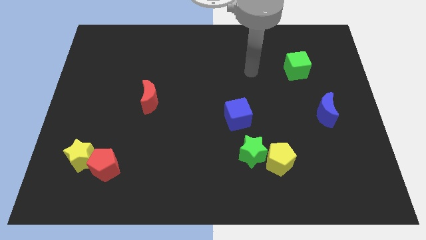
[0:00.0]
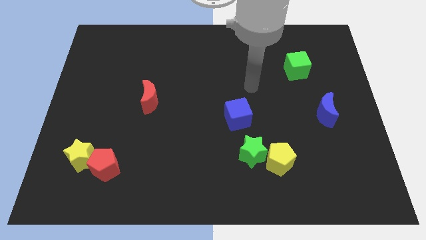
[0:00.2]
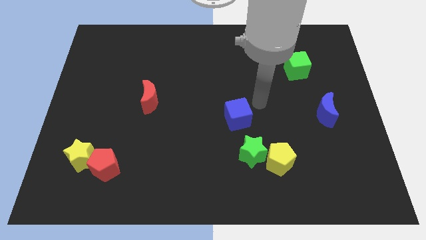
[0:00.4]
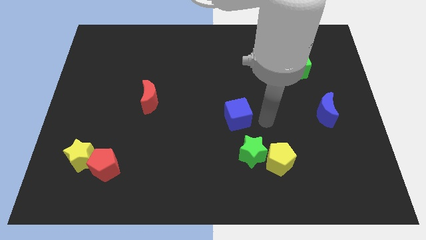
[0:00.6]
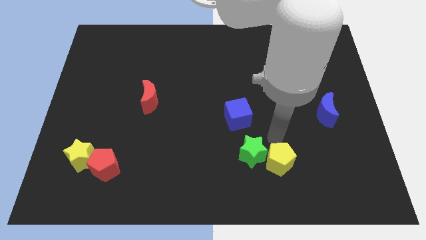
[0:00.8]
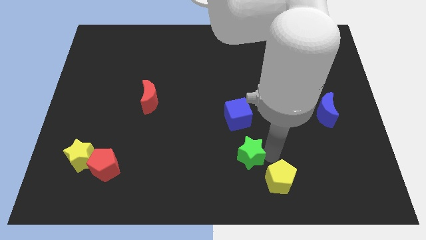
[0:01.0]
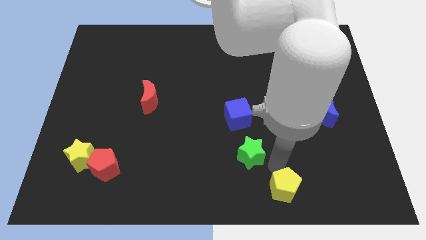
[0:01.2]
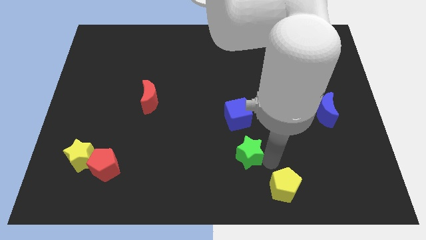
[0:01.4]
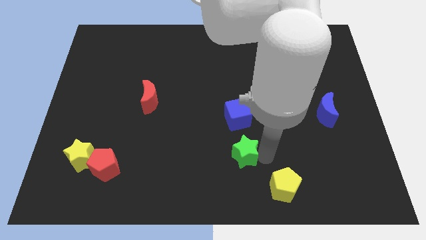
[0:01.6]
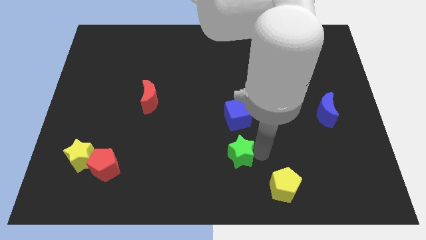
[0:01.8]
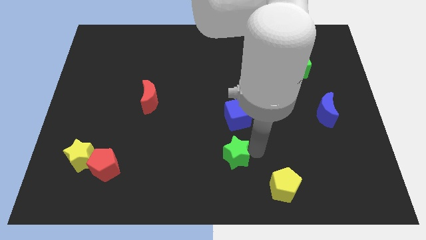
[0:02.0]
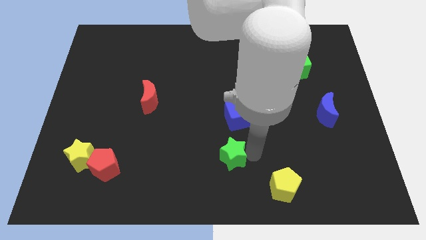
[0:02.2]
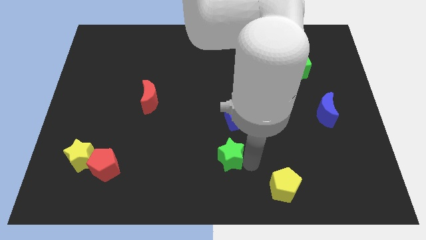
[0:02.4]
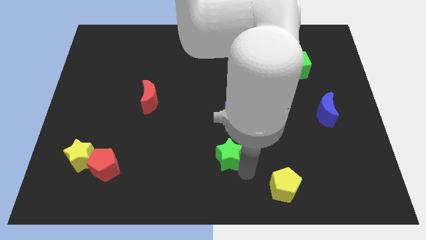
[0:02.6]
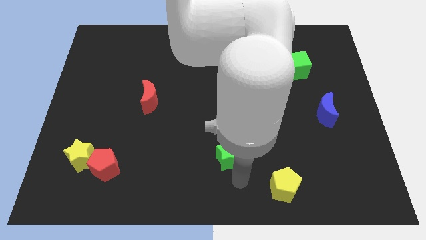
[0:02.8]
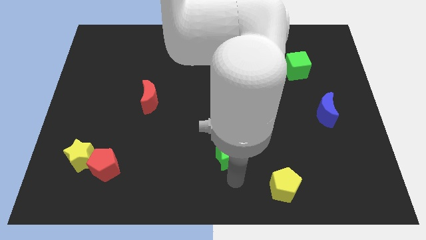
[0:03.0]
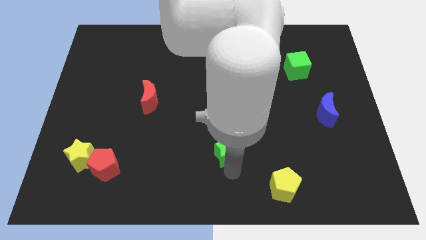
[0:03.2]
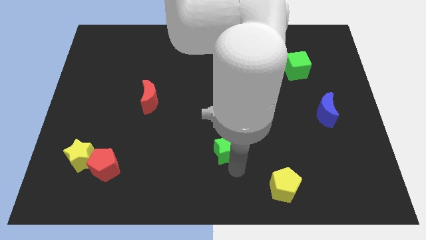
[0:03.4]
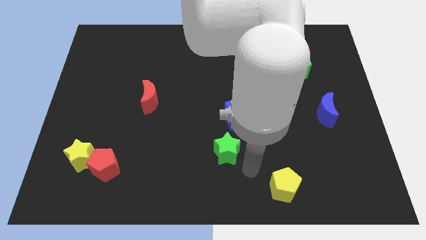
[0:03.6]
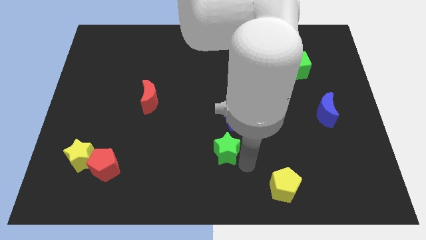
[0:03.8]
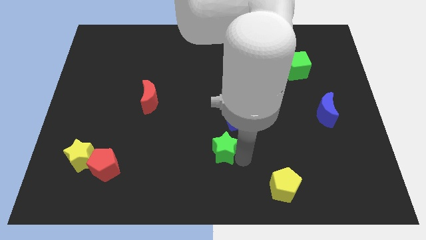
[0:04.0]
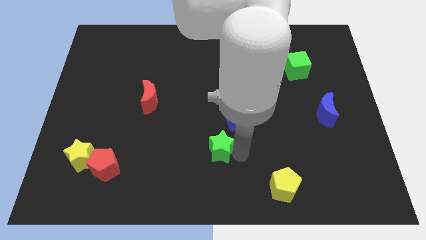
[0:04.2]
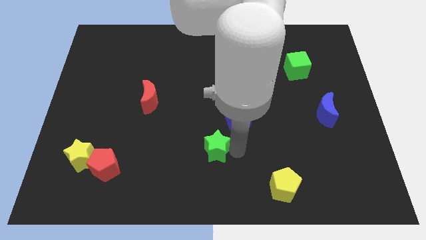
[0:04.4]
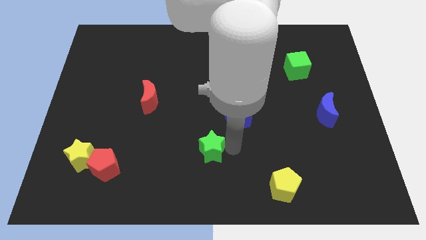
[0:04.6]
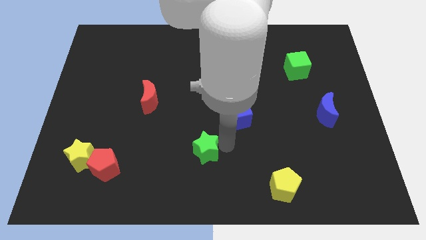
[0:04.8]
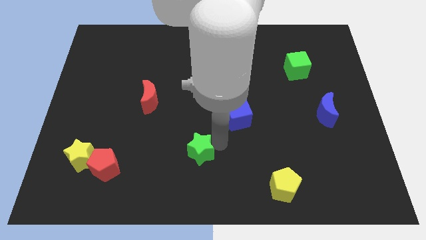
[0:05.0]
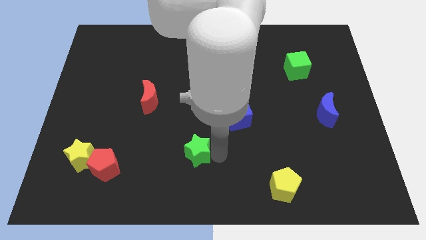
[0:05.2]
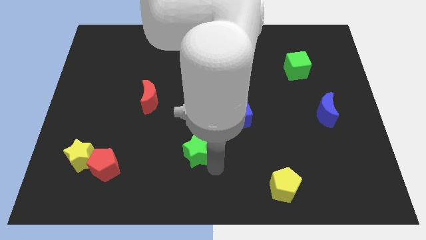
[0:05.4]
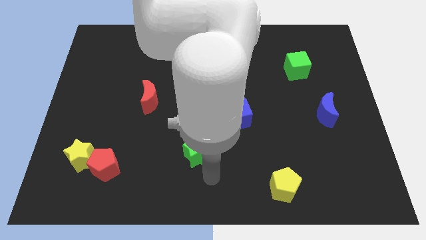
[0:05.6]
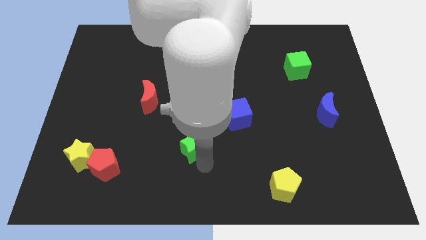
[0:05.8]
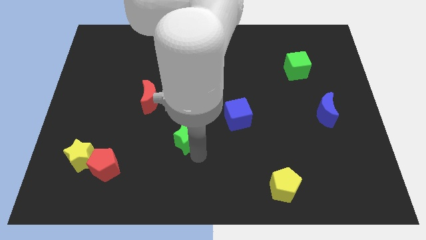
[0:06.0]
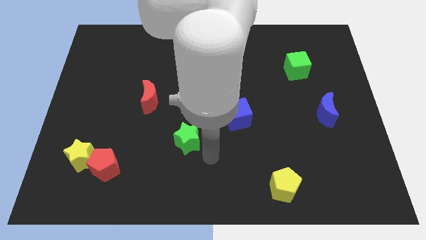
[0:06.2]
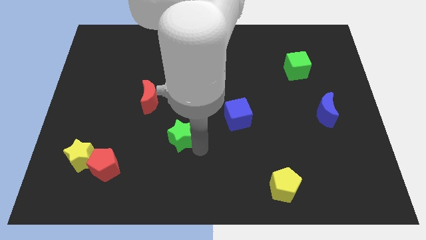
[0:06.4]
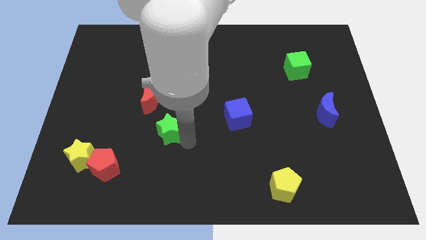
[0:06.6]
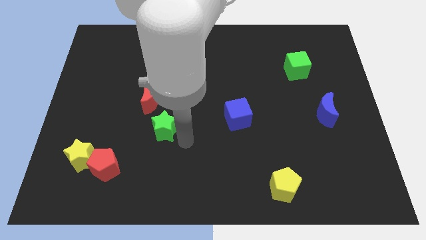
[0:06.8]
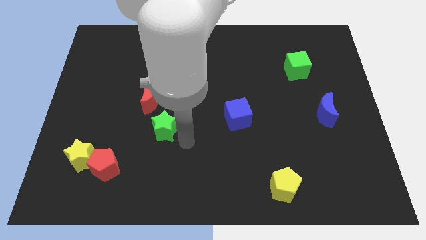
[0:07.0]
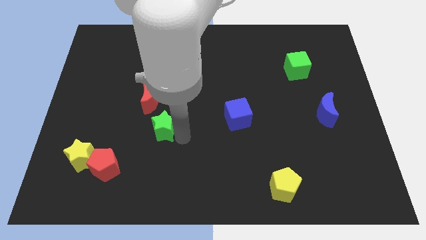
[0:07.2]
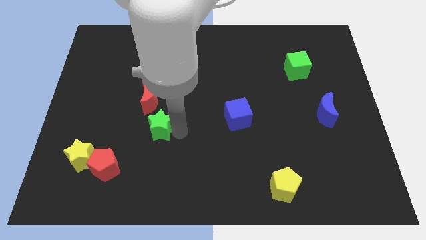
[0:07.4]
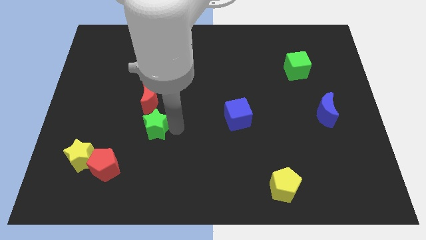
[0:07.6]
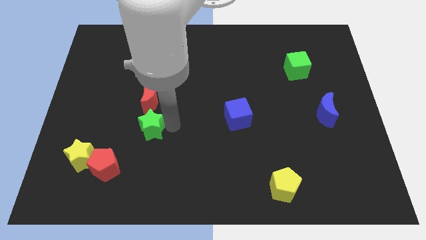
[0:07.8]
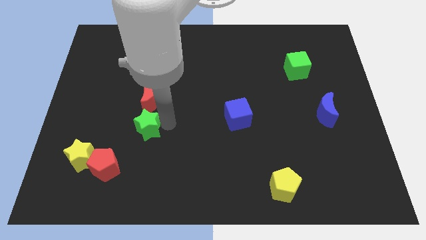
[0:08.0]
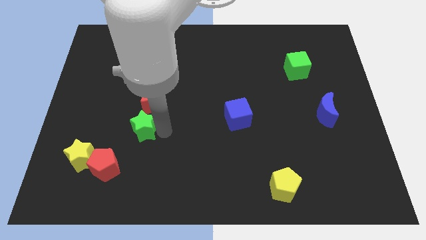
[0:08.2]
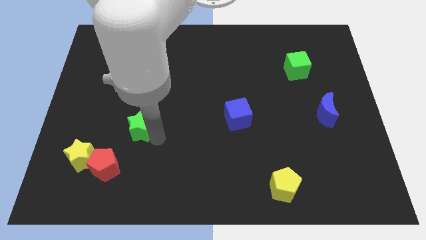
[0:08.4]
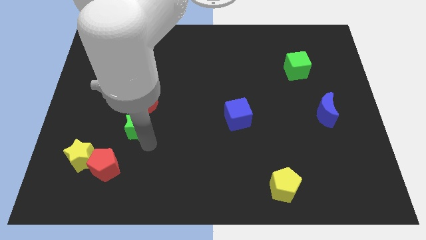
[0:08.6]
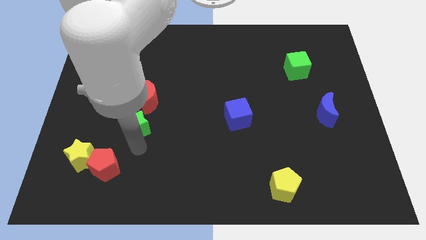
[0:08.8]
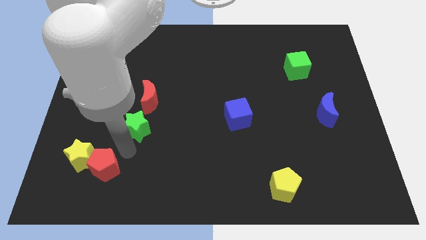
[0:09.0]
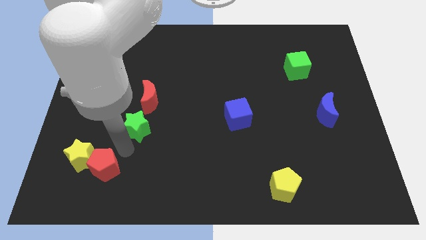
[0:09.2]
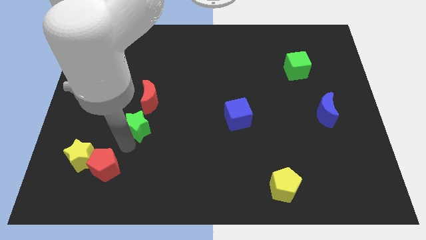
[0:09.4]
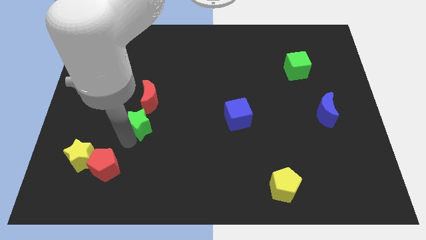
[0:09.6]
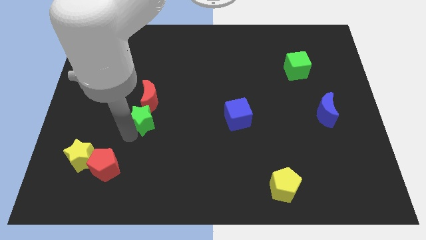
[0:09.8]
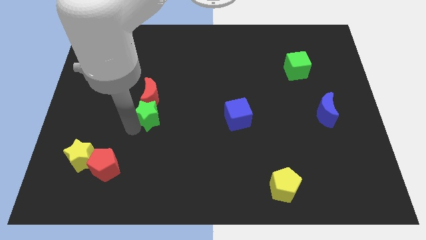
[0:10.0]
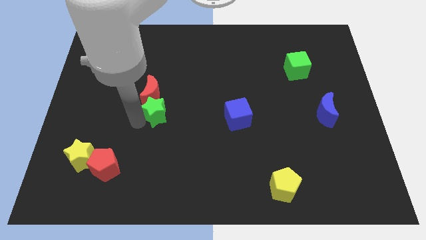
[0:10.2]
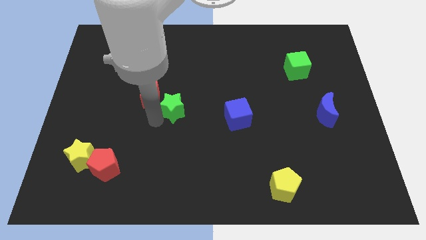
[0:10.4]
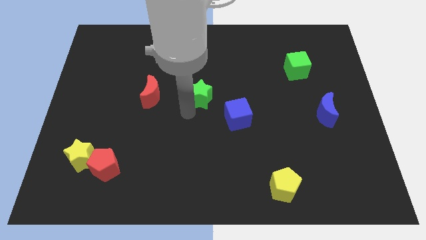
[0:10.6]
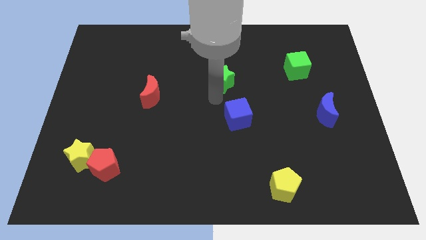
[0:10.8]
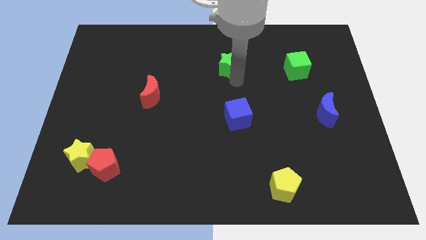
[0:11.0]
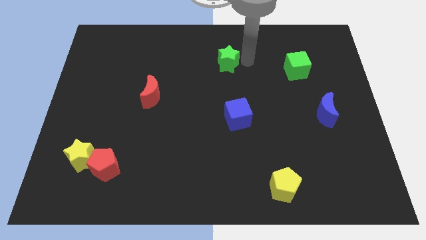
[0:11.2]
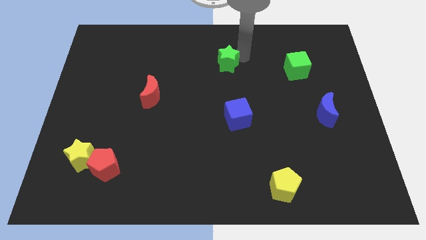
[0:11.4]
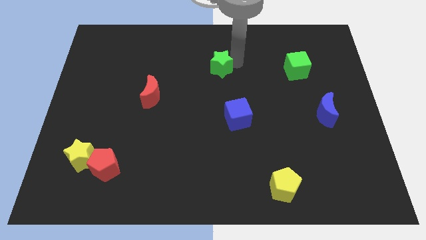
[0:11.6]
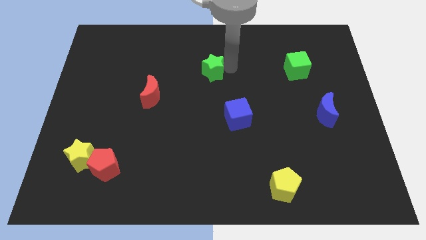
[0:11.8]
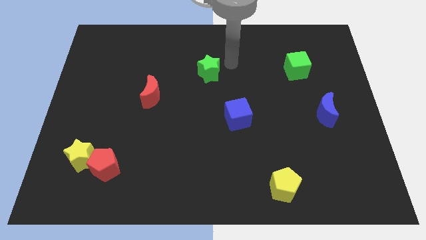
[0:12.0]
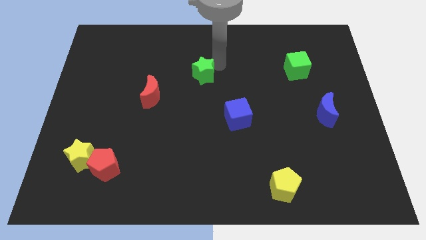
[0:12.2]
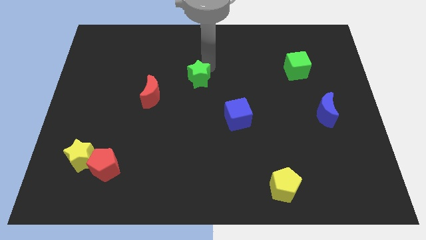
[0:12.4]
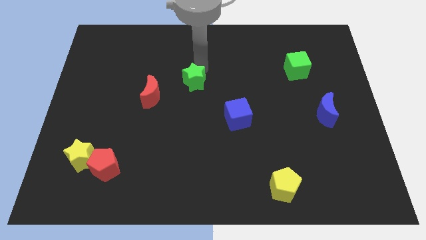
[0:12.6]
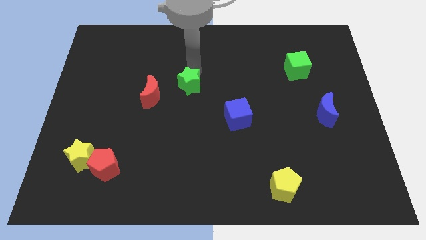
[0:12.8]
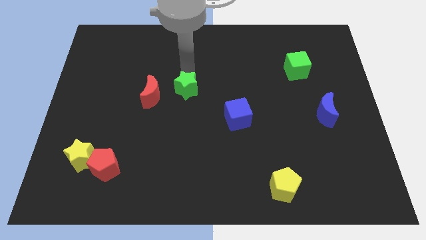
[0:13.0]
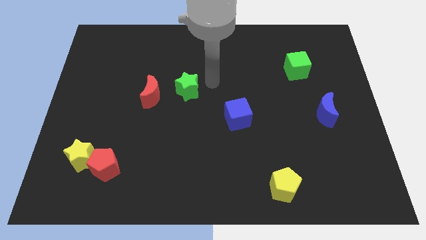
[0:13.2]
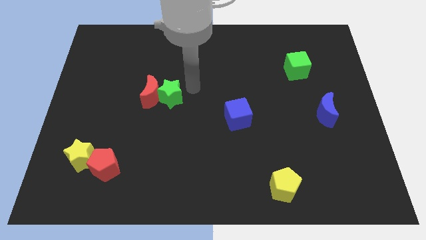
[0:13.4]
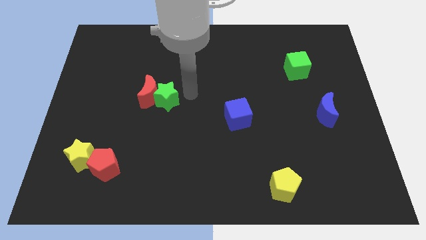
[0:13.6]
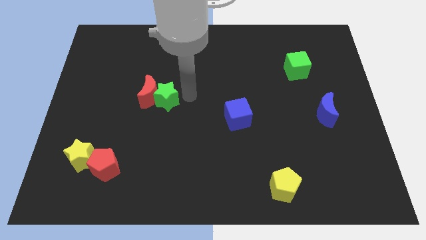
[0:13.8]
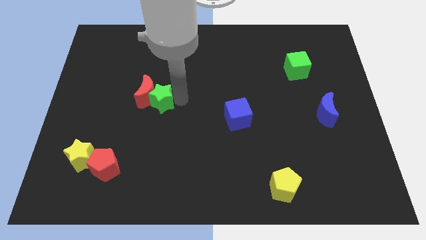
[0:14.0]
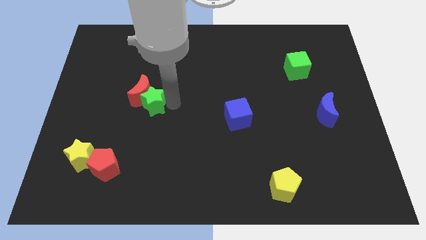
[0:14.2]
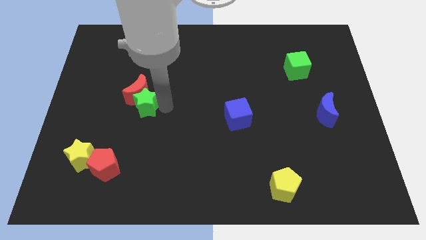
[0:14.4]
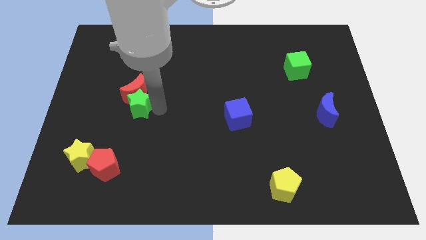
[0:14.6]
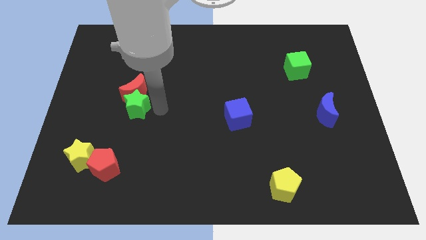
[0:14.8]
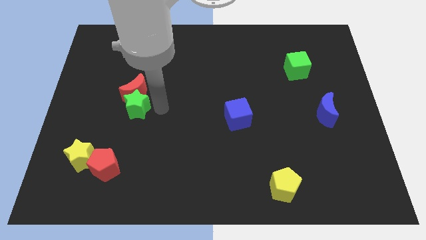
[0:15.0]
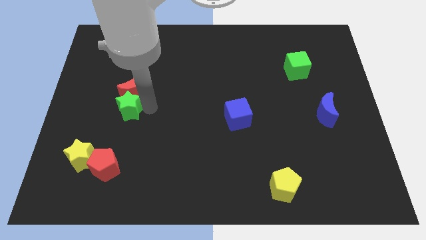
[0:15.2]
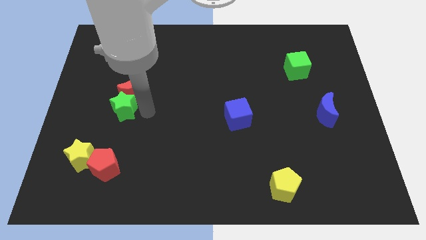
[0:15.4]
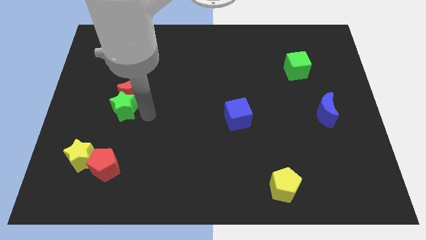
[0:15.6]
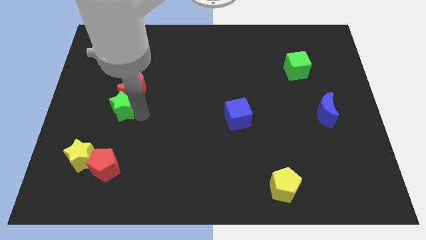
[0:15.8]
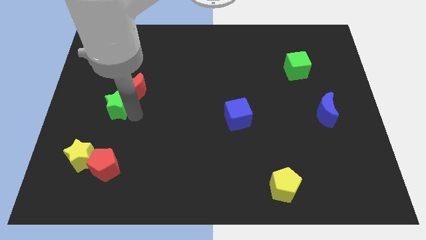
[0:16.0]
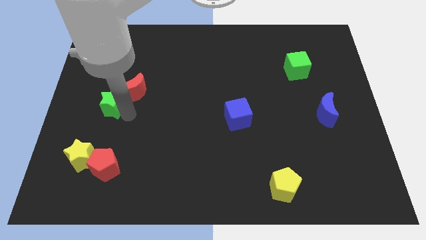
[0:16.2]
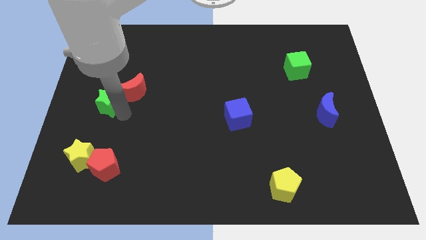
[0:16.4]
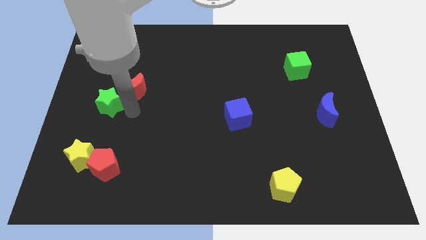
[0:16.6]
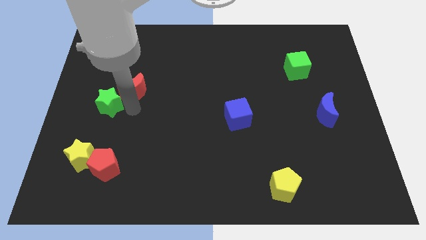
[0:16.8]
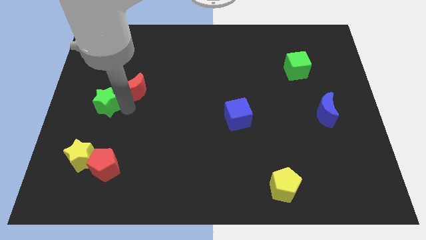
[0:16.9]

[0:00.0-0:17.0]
put the green star to the left side
